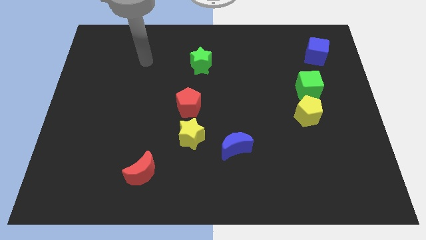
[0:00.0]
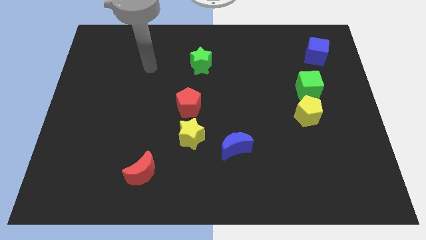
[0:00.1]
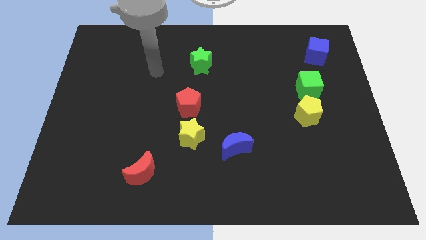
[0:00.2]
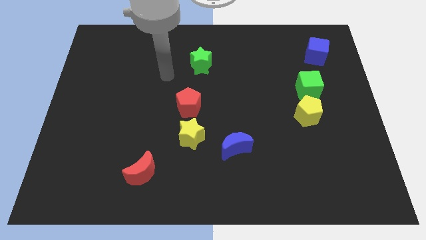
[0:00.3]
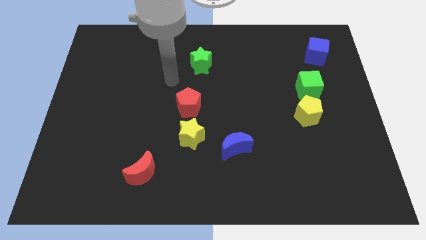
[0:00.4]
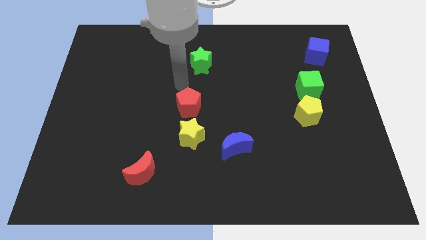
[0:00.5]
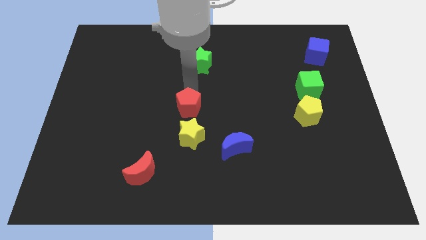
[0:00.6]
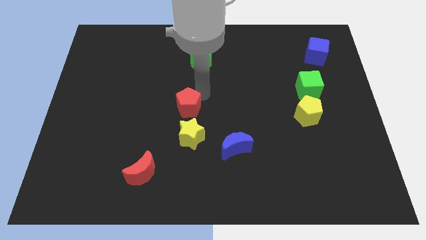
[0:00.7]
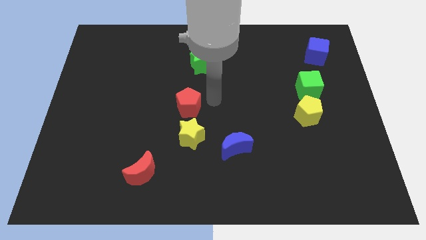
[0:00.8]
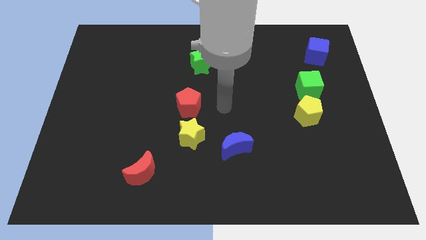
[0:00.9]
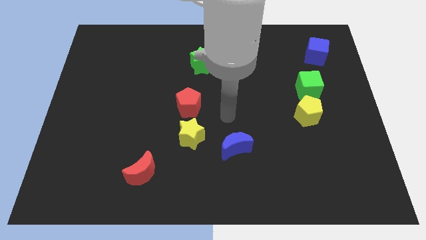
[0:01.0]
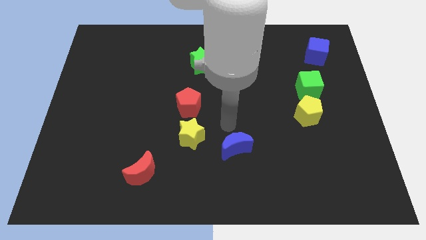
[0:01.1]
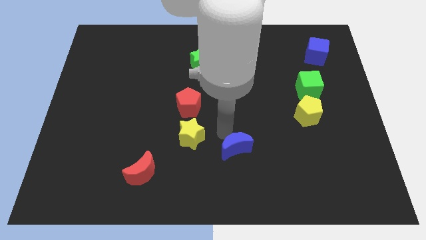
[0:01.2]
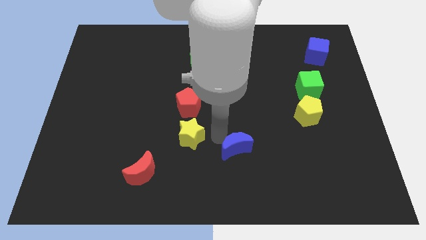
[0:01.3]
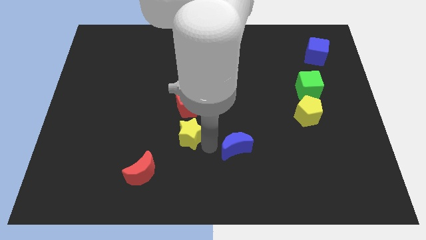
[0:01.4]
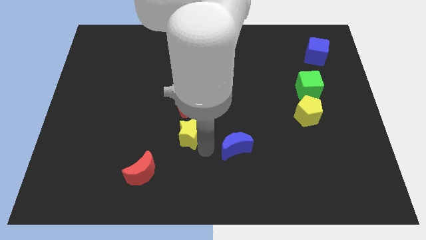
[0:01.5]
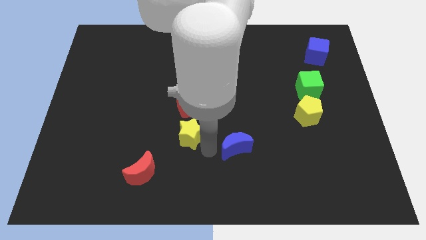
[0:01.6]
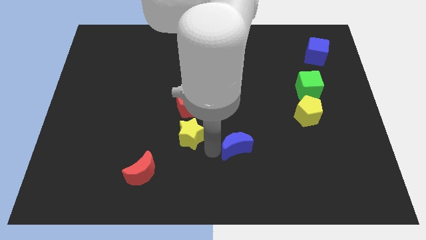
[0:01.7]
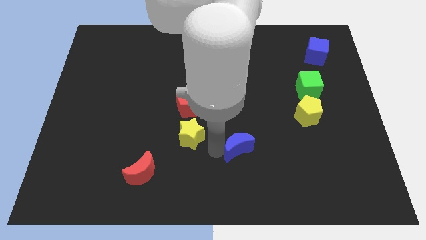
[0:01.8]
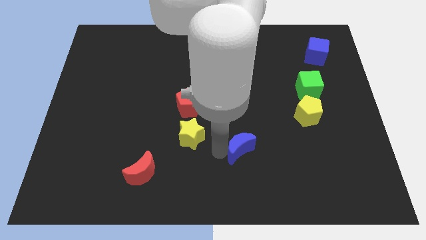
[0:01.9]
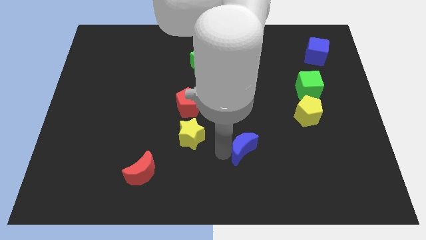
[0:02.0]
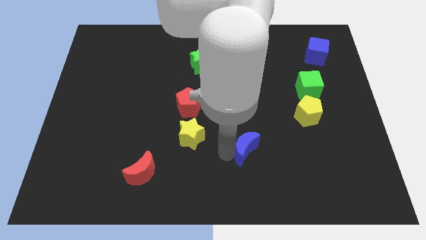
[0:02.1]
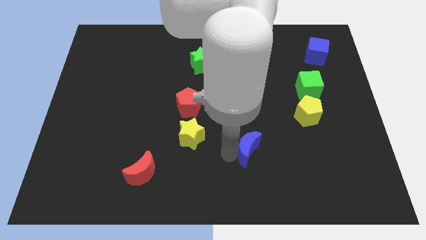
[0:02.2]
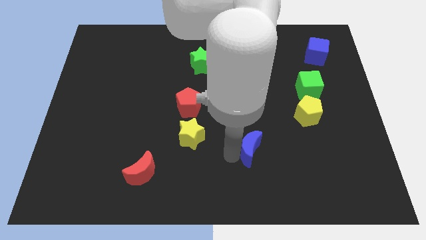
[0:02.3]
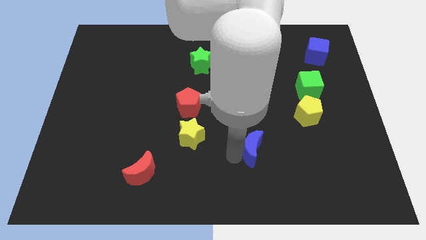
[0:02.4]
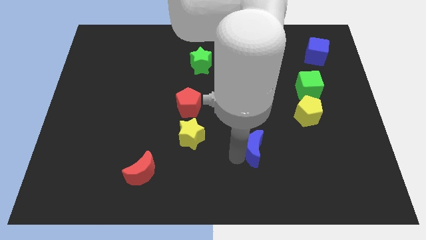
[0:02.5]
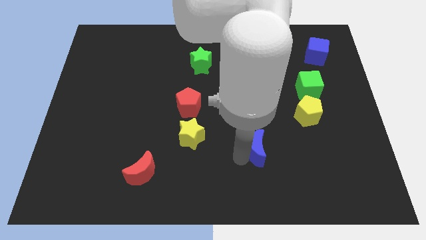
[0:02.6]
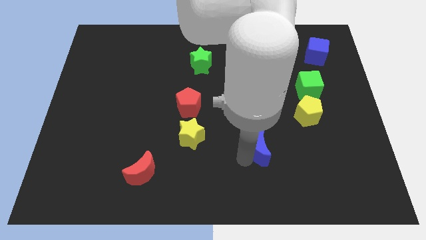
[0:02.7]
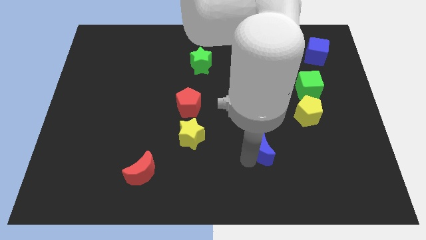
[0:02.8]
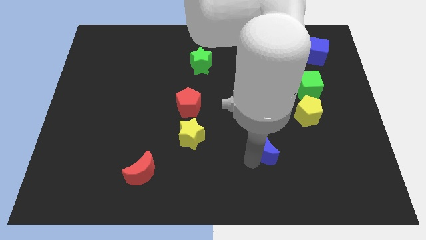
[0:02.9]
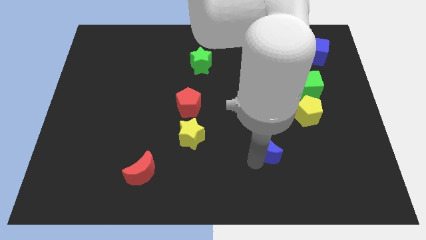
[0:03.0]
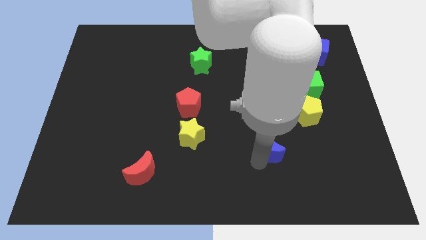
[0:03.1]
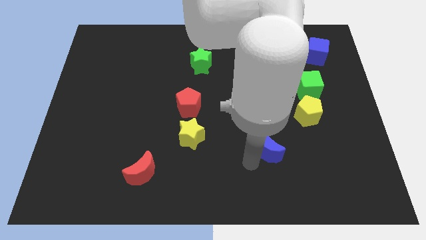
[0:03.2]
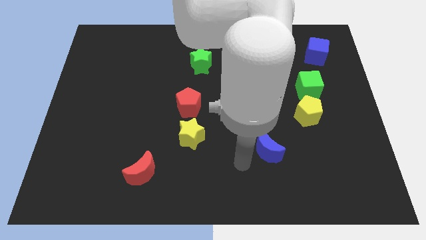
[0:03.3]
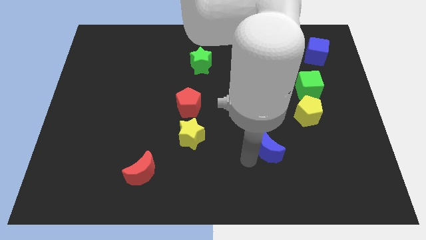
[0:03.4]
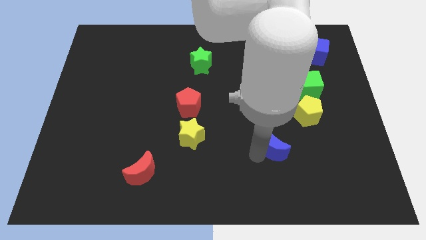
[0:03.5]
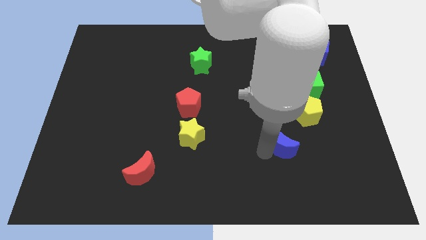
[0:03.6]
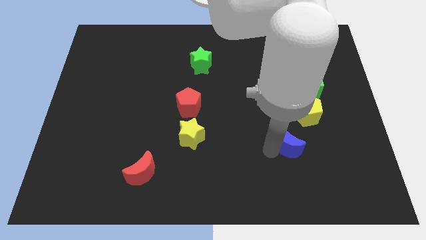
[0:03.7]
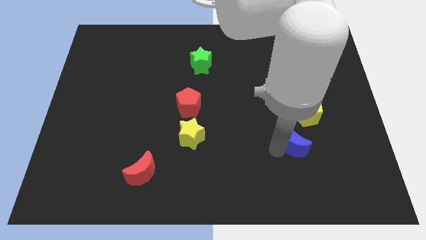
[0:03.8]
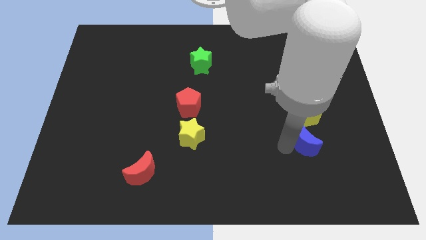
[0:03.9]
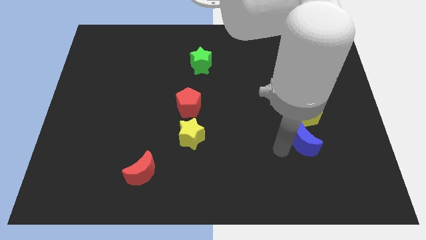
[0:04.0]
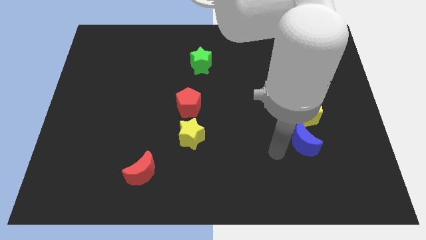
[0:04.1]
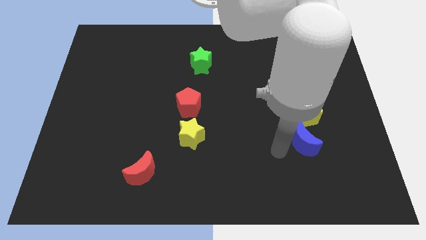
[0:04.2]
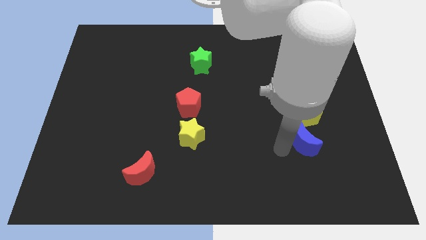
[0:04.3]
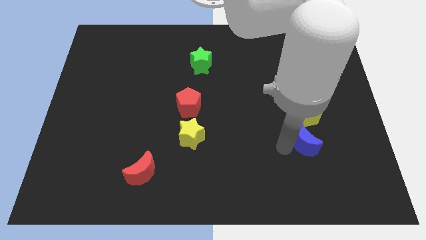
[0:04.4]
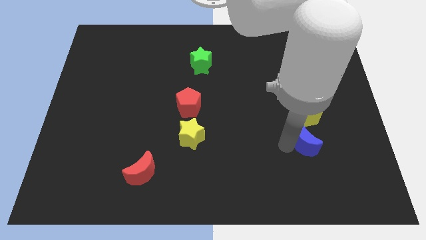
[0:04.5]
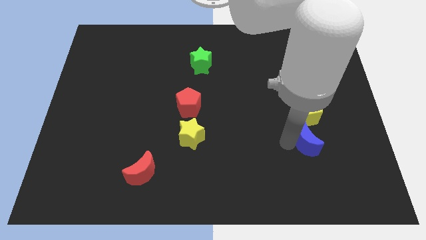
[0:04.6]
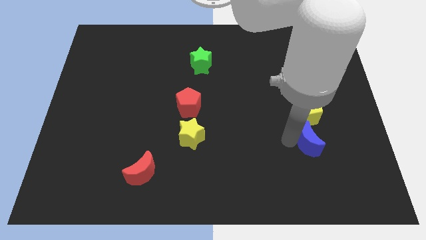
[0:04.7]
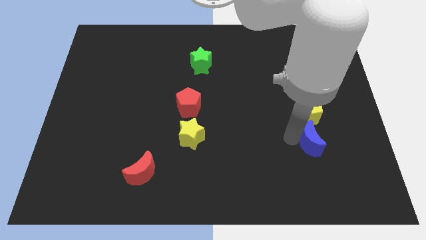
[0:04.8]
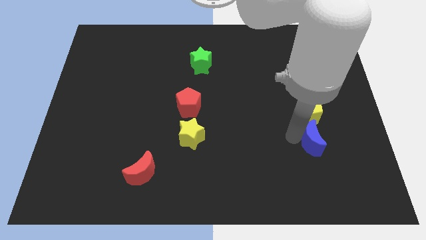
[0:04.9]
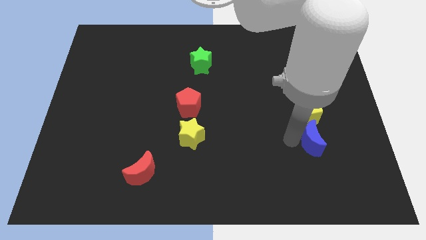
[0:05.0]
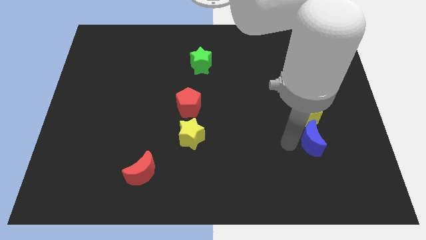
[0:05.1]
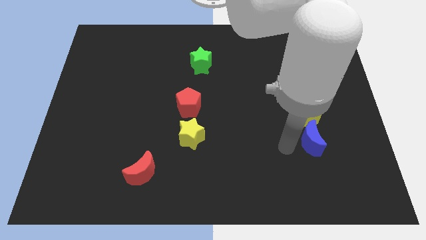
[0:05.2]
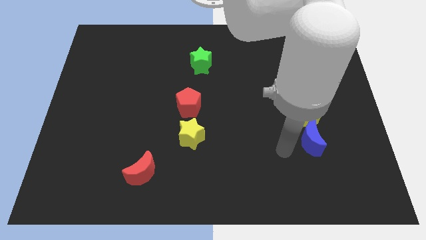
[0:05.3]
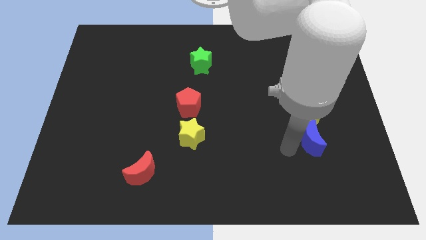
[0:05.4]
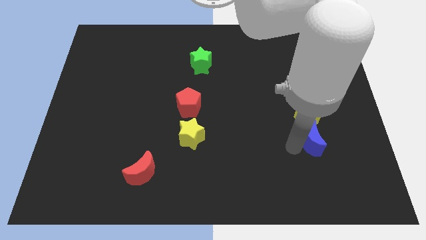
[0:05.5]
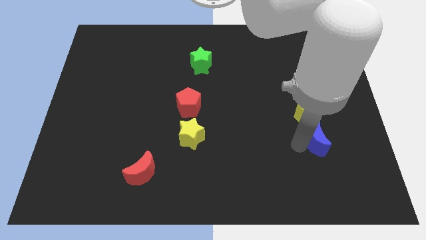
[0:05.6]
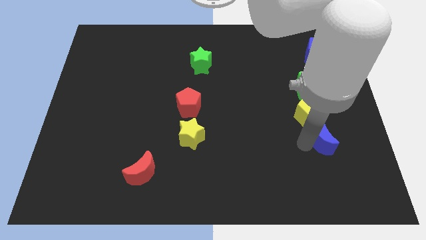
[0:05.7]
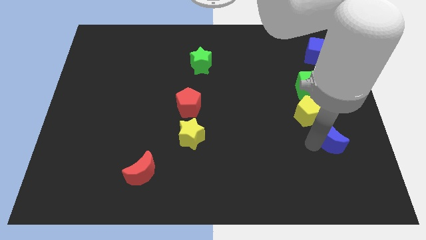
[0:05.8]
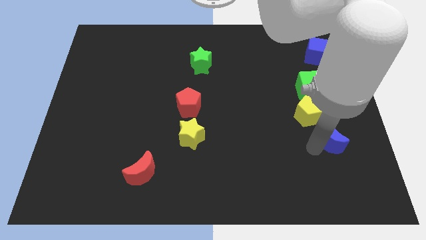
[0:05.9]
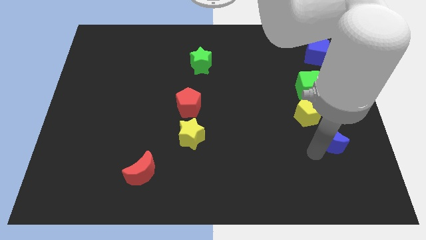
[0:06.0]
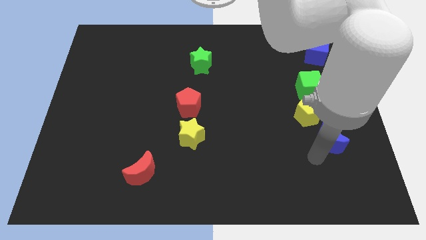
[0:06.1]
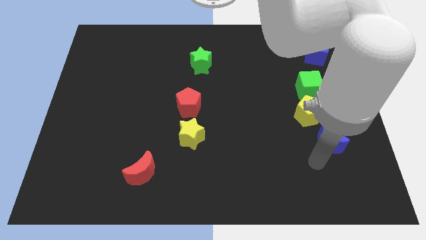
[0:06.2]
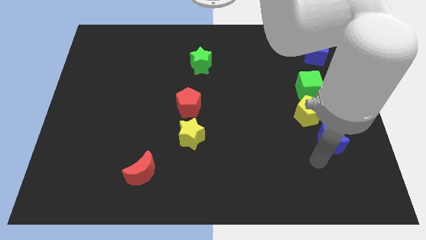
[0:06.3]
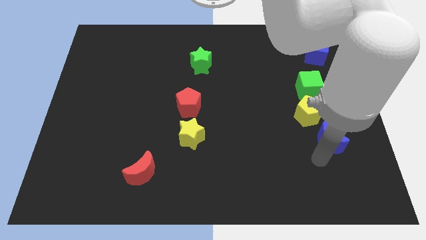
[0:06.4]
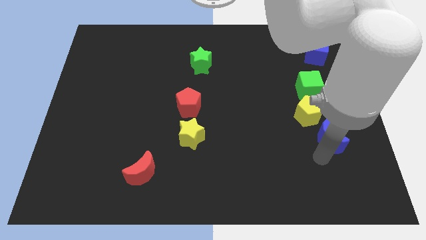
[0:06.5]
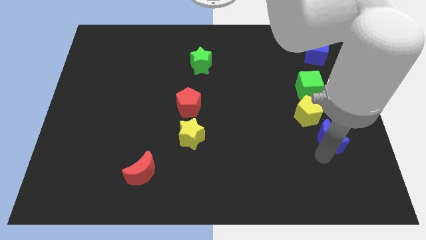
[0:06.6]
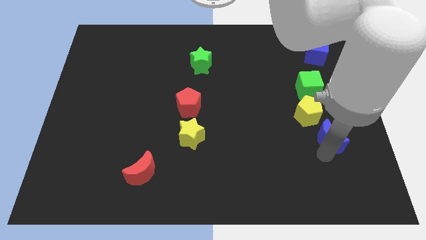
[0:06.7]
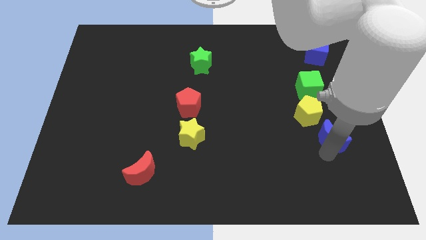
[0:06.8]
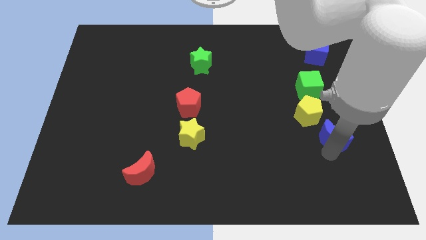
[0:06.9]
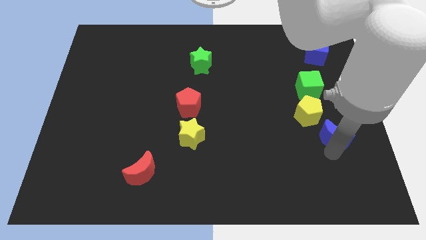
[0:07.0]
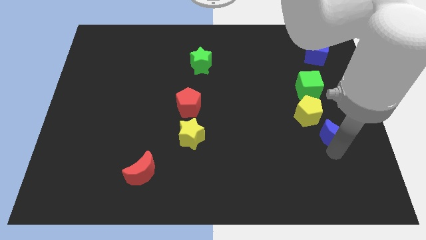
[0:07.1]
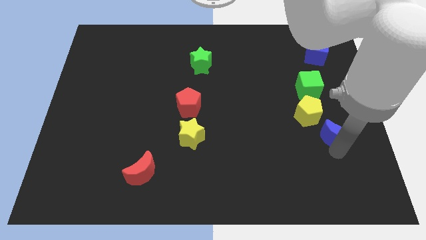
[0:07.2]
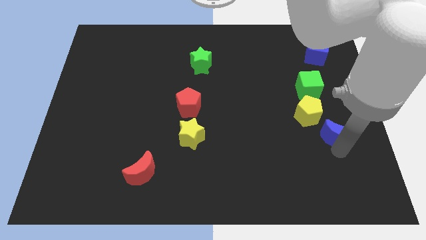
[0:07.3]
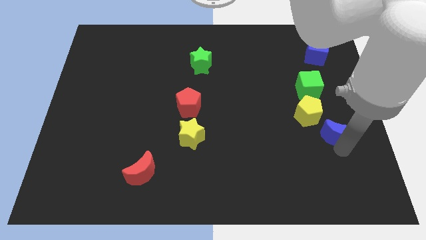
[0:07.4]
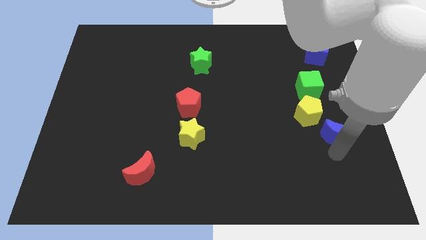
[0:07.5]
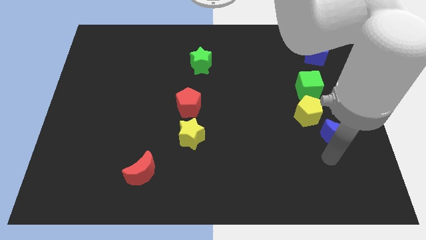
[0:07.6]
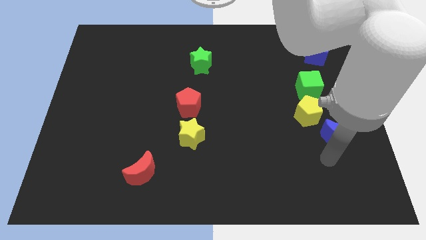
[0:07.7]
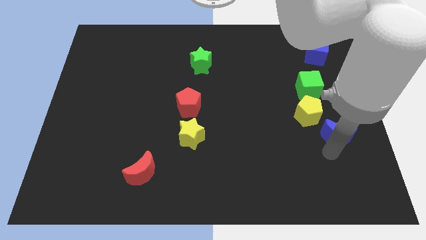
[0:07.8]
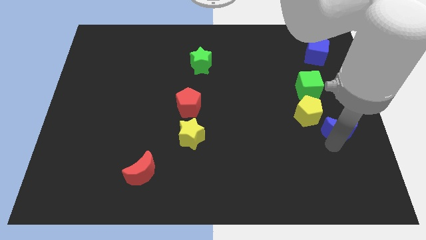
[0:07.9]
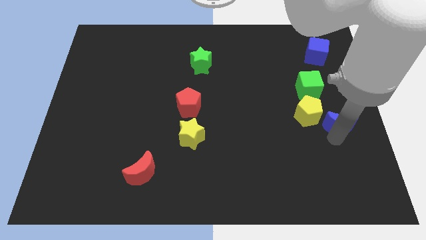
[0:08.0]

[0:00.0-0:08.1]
move the blue moon to the right side of the board
